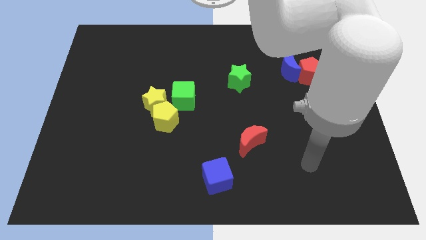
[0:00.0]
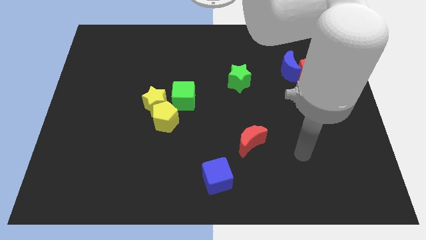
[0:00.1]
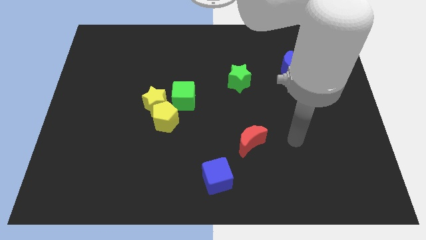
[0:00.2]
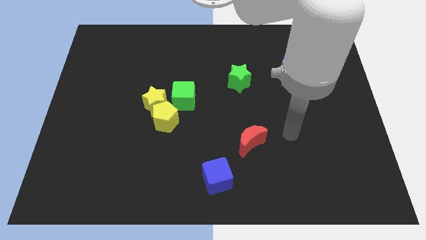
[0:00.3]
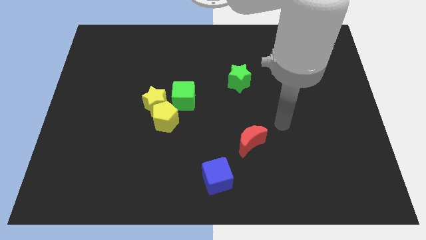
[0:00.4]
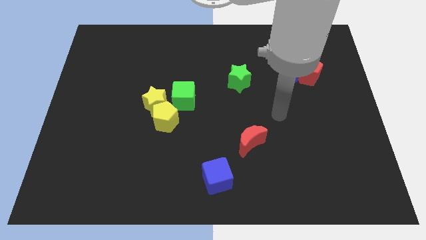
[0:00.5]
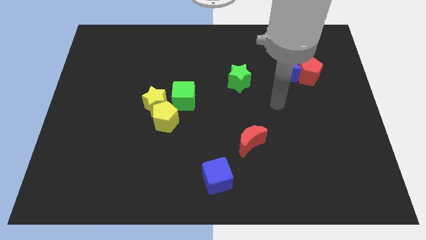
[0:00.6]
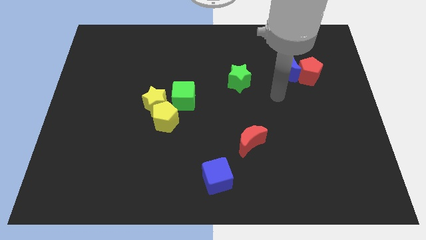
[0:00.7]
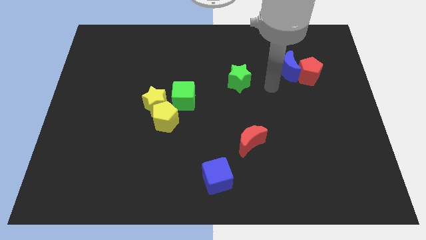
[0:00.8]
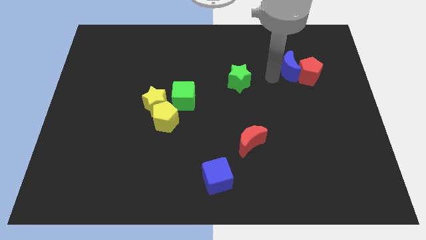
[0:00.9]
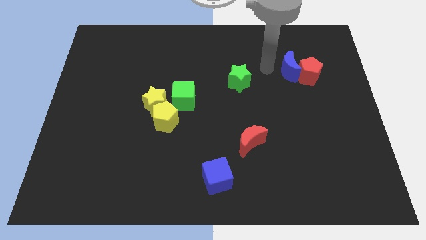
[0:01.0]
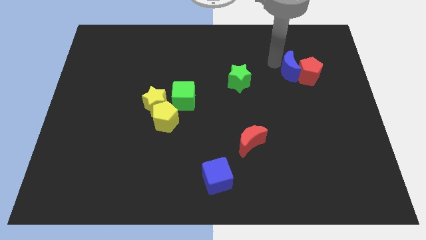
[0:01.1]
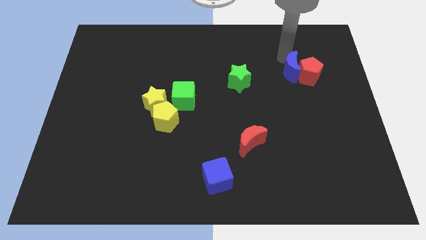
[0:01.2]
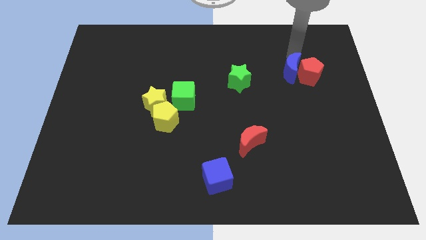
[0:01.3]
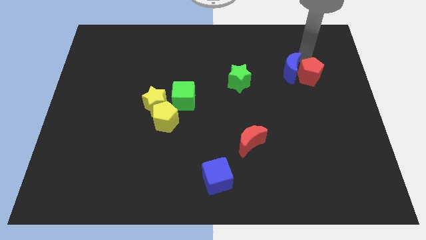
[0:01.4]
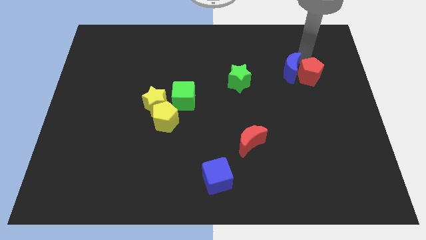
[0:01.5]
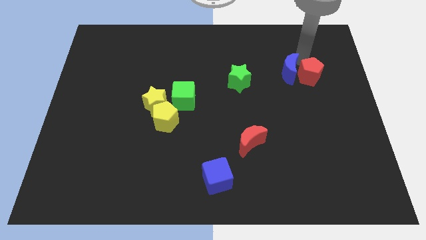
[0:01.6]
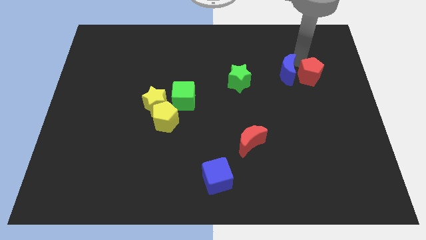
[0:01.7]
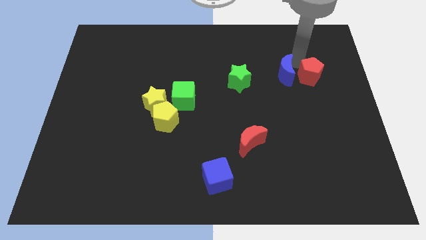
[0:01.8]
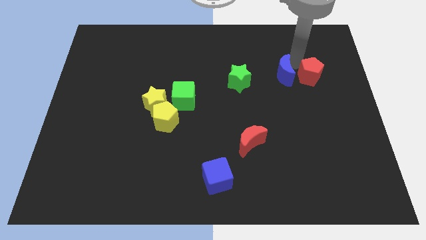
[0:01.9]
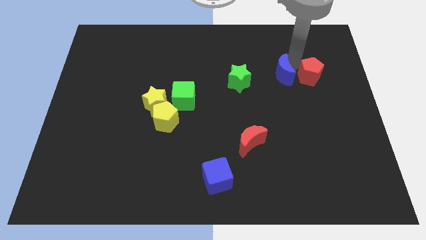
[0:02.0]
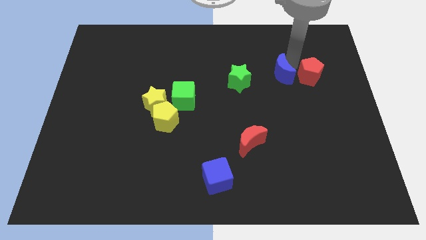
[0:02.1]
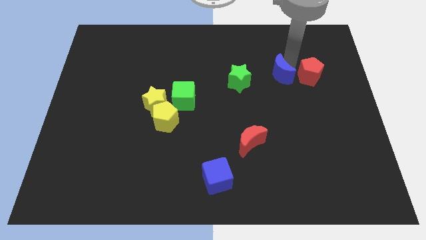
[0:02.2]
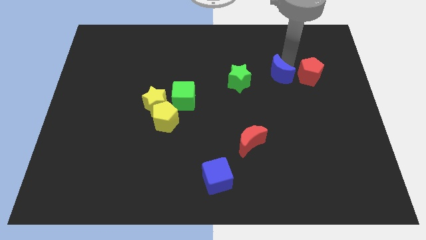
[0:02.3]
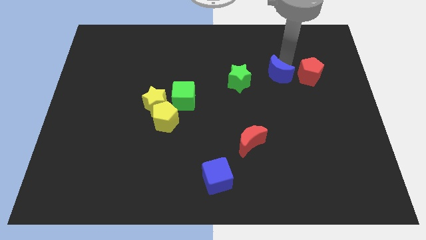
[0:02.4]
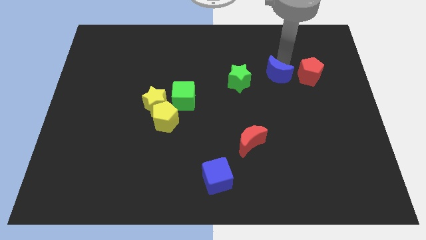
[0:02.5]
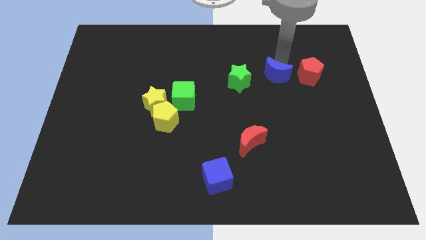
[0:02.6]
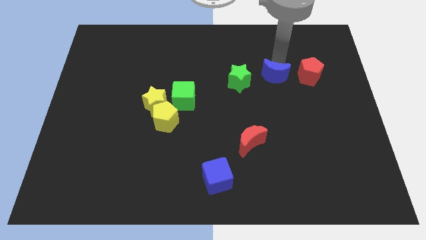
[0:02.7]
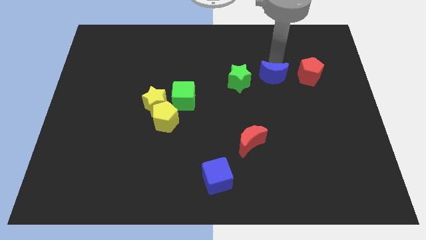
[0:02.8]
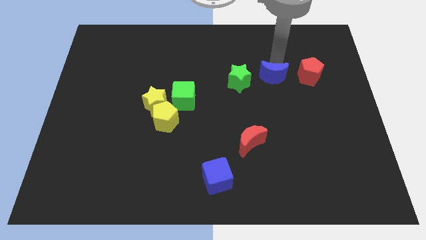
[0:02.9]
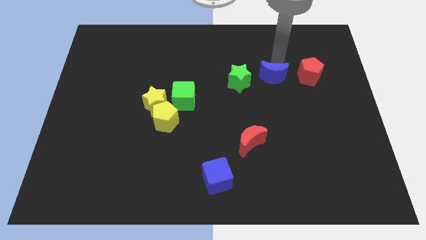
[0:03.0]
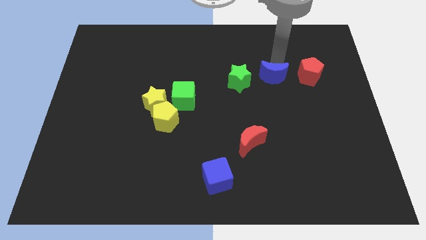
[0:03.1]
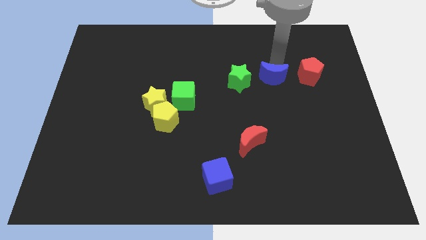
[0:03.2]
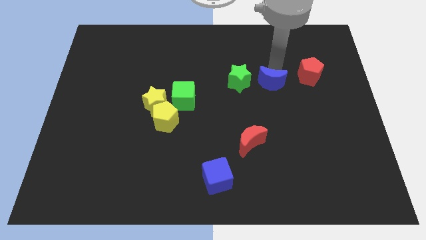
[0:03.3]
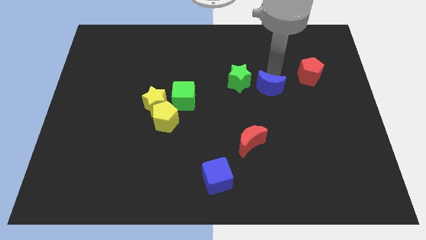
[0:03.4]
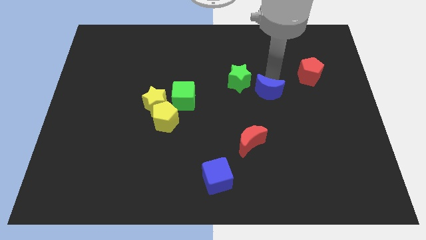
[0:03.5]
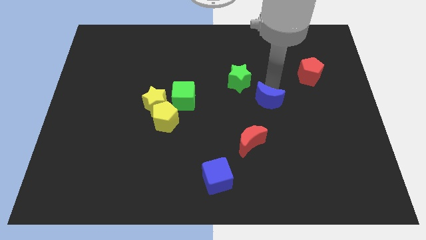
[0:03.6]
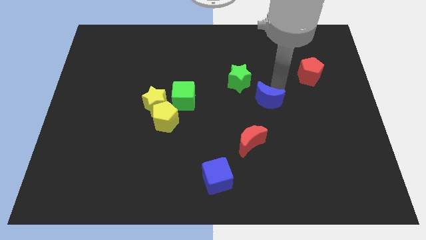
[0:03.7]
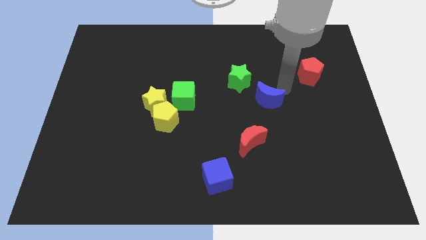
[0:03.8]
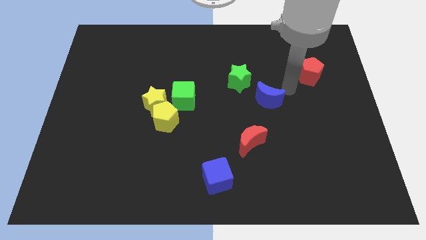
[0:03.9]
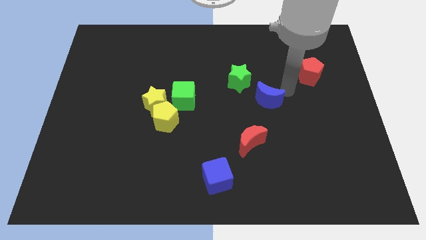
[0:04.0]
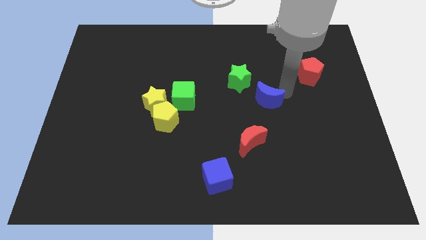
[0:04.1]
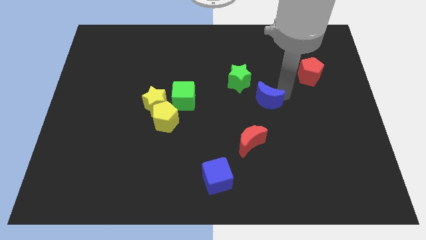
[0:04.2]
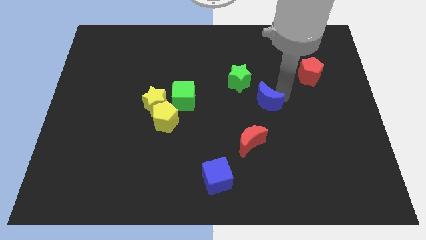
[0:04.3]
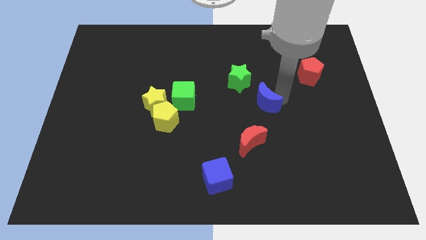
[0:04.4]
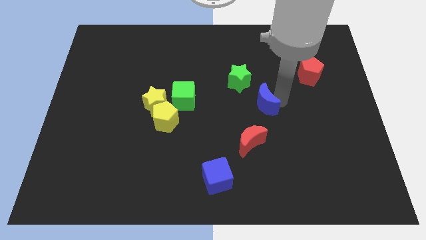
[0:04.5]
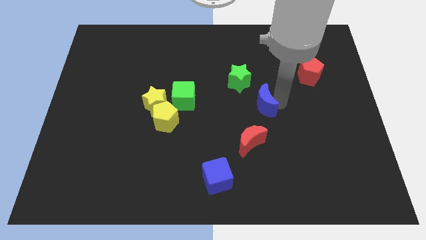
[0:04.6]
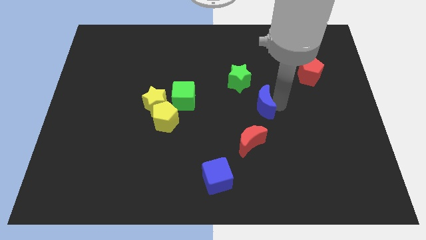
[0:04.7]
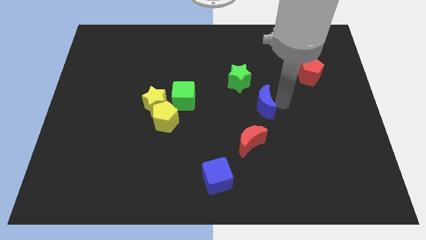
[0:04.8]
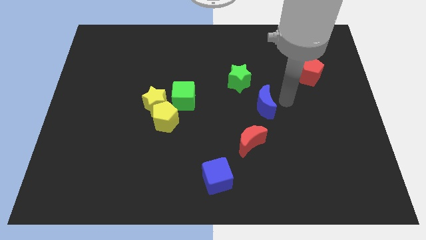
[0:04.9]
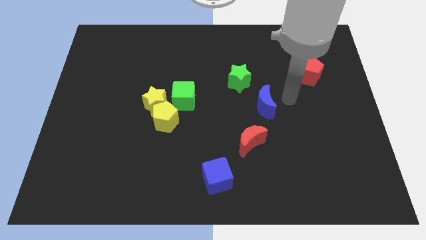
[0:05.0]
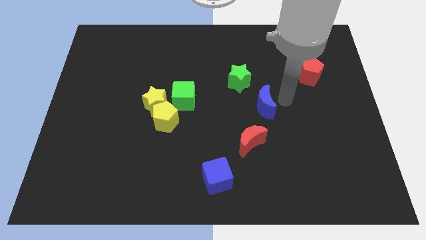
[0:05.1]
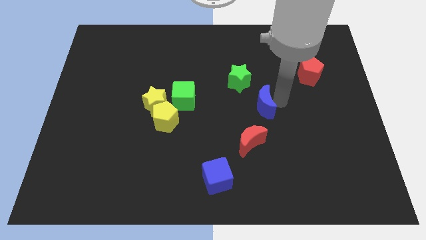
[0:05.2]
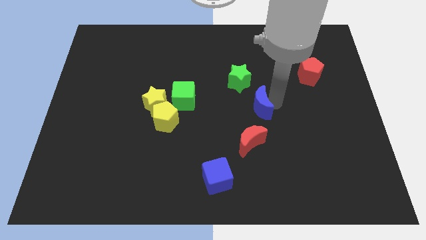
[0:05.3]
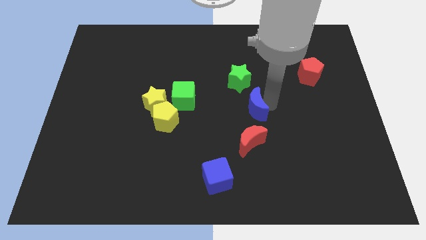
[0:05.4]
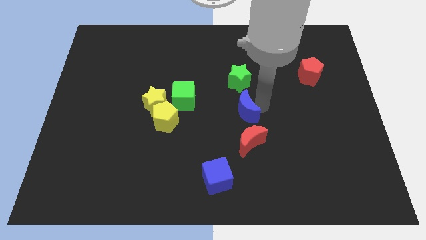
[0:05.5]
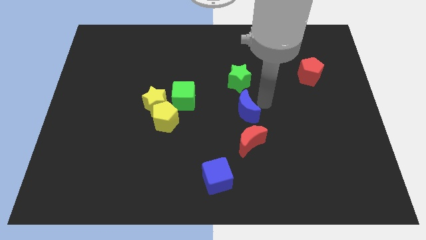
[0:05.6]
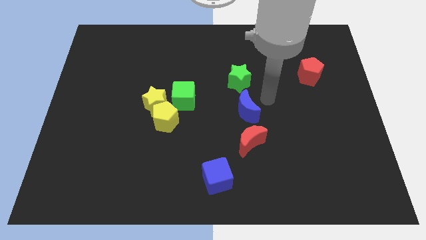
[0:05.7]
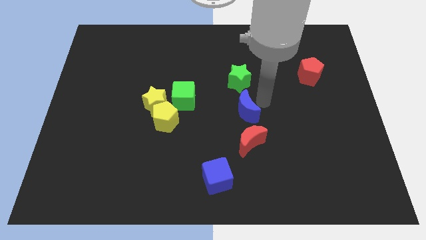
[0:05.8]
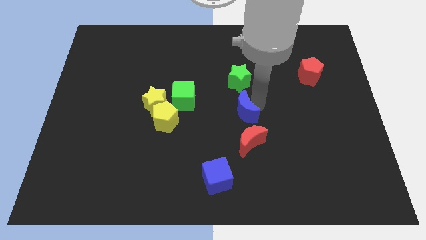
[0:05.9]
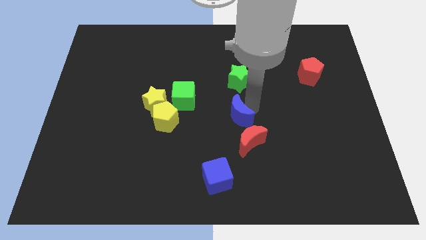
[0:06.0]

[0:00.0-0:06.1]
put the blue moon to the top left side of the red moon

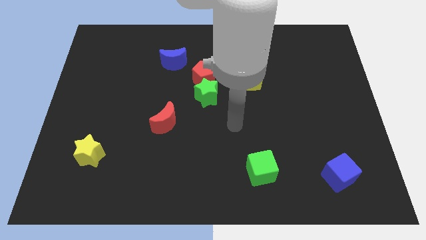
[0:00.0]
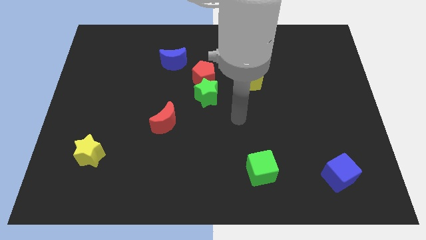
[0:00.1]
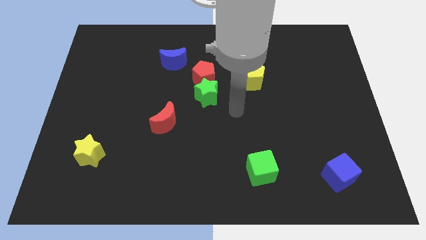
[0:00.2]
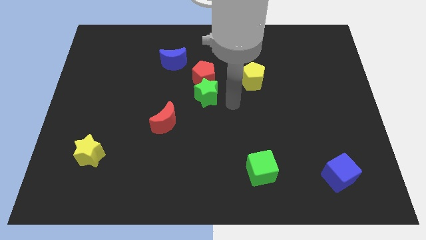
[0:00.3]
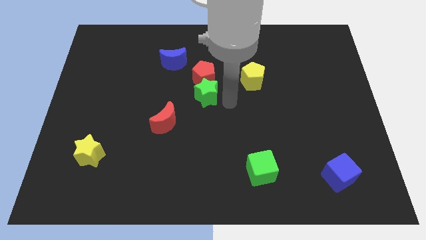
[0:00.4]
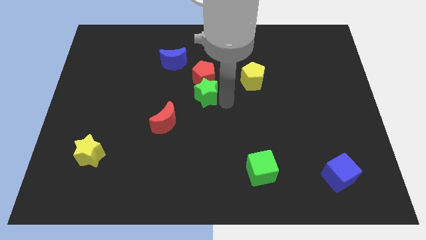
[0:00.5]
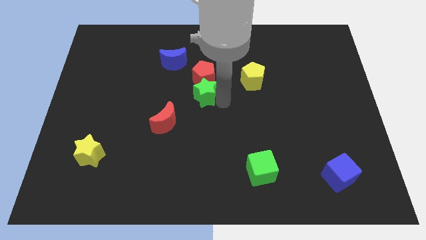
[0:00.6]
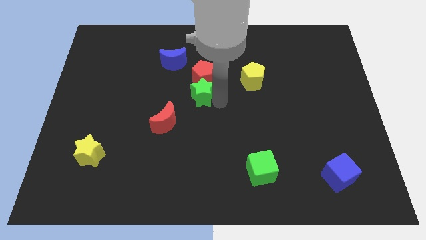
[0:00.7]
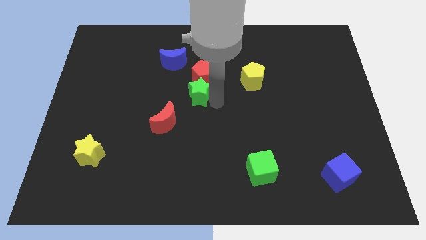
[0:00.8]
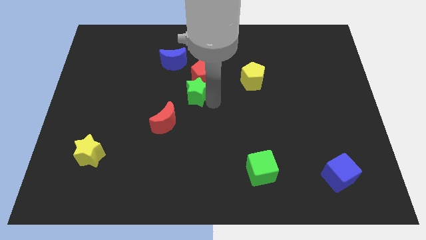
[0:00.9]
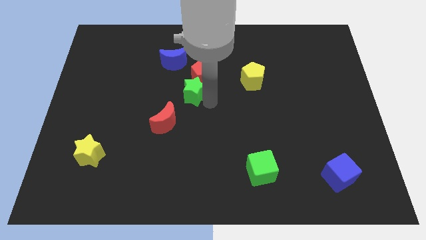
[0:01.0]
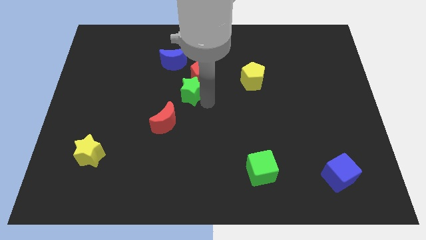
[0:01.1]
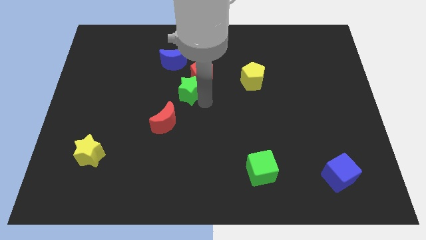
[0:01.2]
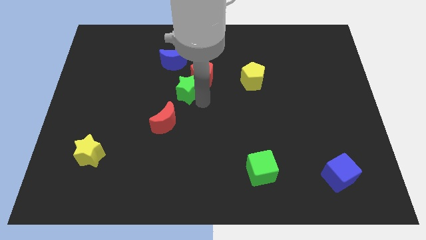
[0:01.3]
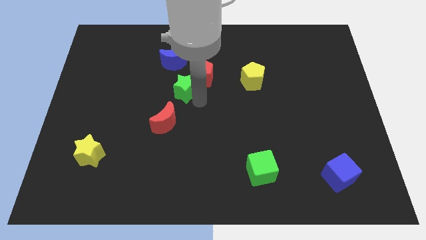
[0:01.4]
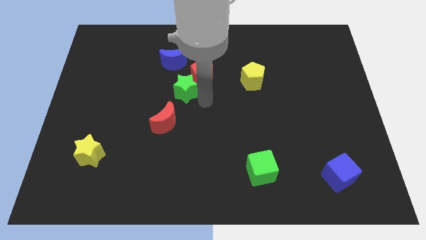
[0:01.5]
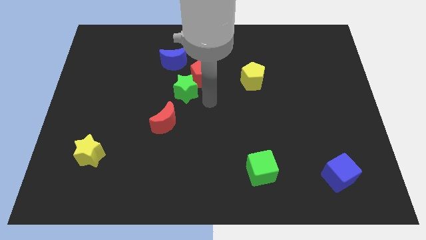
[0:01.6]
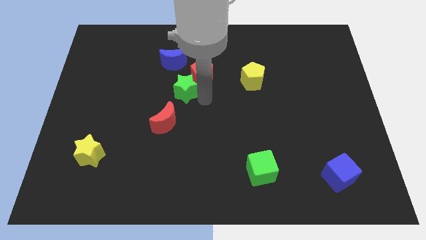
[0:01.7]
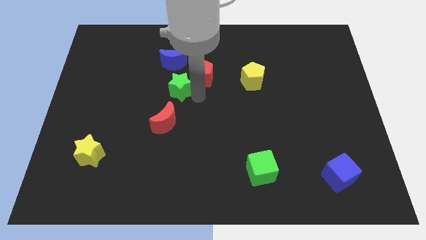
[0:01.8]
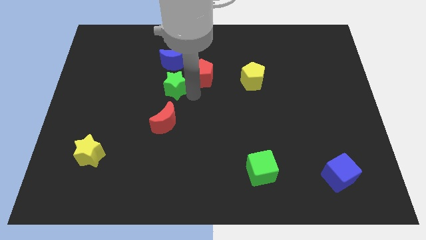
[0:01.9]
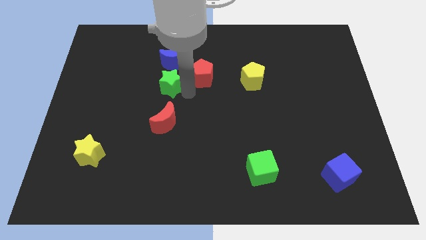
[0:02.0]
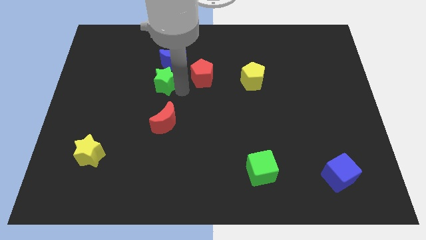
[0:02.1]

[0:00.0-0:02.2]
slide the green star to the bottom left side of the blue moon
